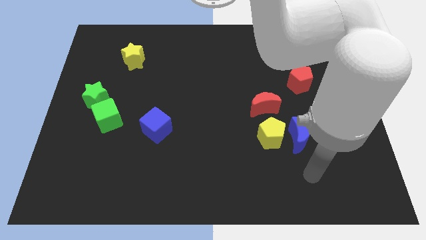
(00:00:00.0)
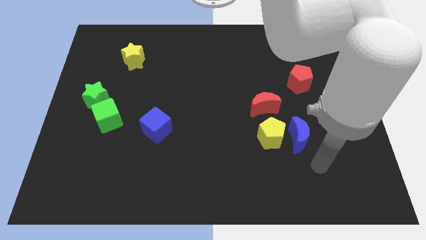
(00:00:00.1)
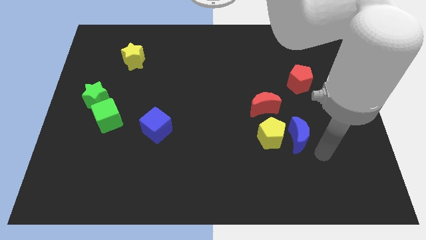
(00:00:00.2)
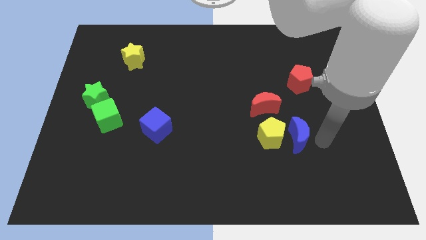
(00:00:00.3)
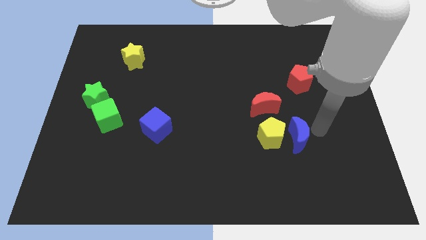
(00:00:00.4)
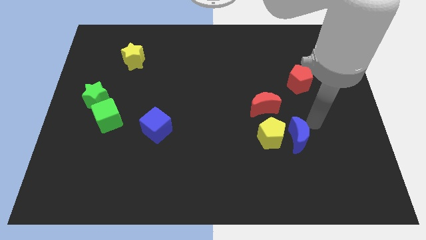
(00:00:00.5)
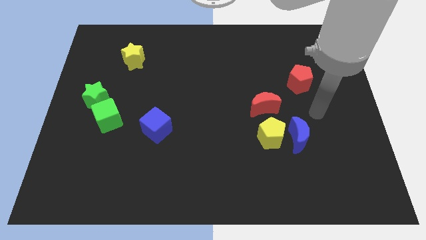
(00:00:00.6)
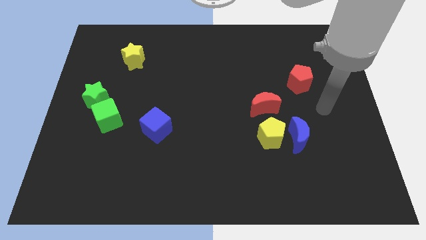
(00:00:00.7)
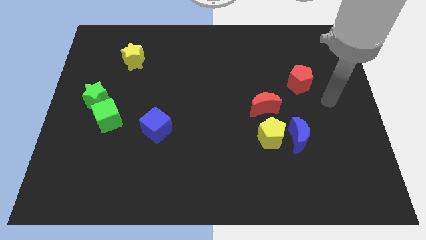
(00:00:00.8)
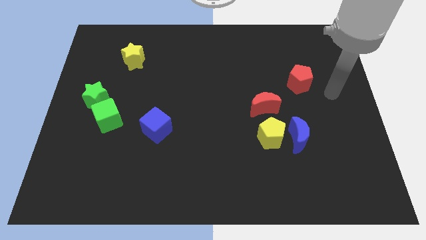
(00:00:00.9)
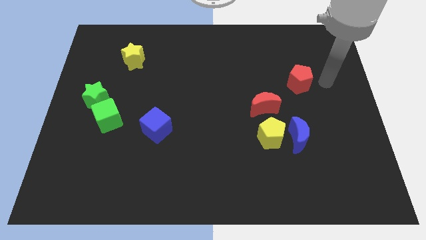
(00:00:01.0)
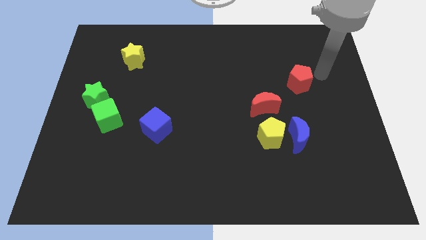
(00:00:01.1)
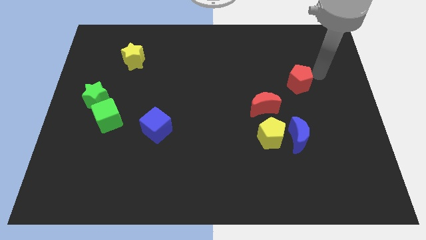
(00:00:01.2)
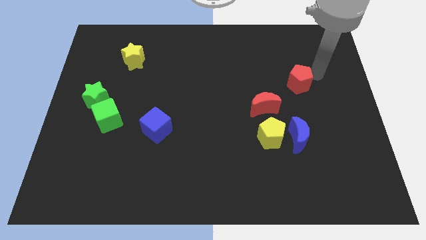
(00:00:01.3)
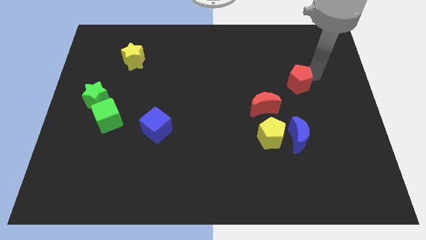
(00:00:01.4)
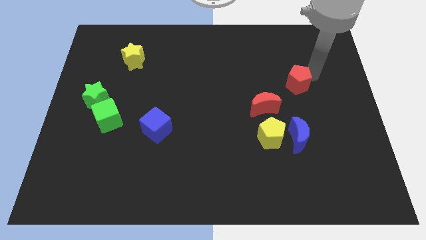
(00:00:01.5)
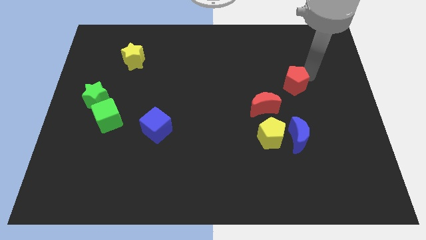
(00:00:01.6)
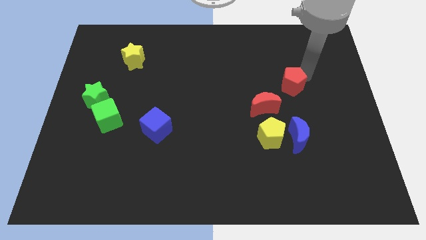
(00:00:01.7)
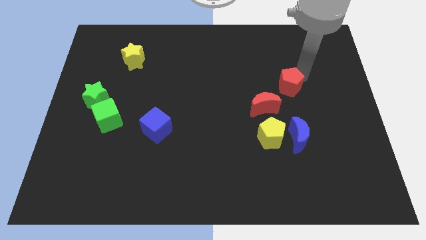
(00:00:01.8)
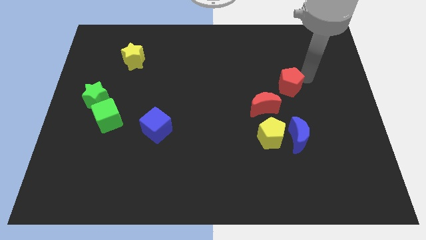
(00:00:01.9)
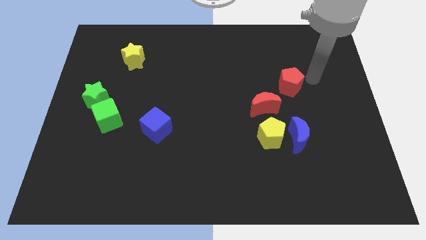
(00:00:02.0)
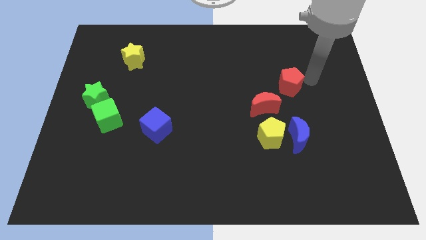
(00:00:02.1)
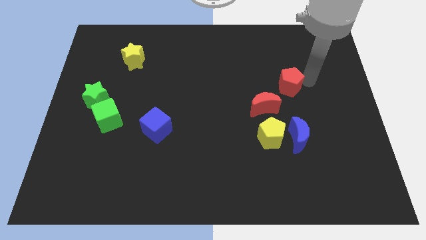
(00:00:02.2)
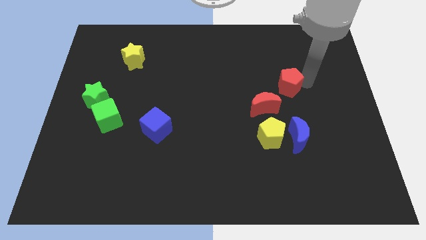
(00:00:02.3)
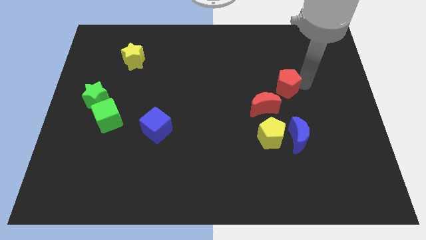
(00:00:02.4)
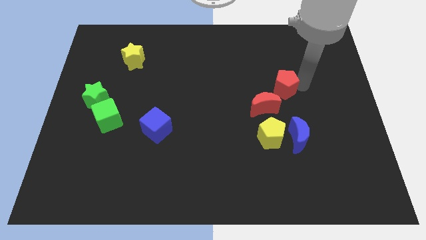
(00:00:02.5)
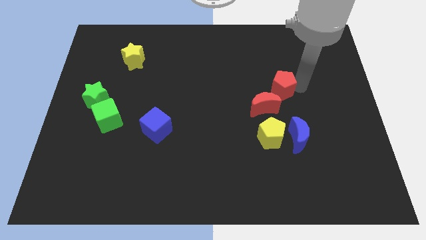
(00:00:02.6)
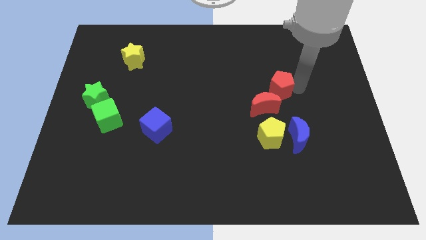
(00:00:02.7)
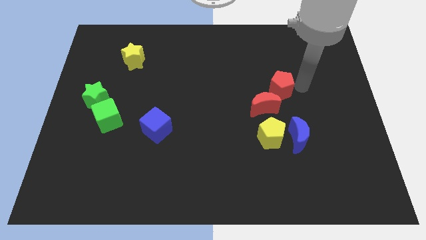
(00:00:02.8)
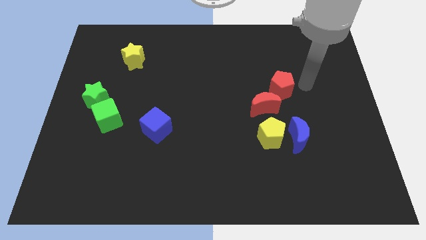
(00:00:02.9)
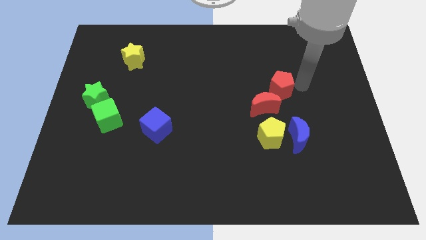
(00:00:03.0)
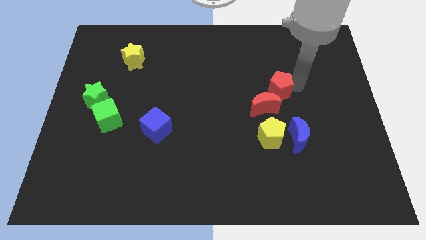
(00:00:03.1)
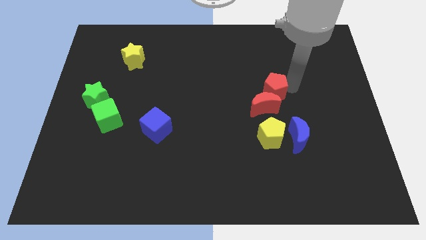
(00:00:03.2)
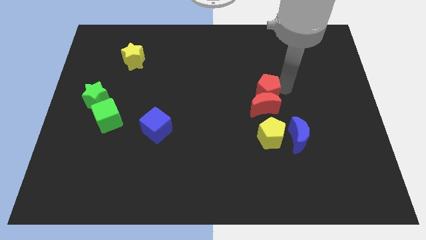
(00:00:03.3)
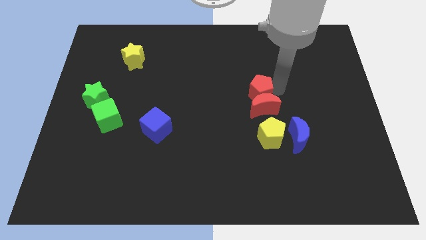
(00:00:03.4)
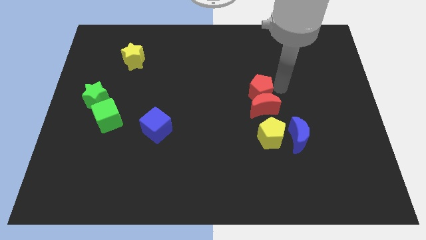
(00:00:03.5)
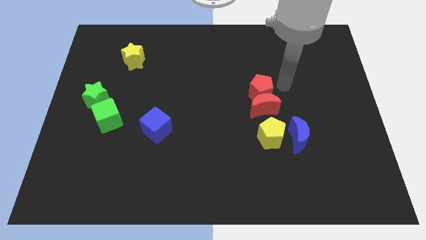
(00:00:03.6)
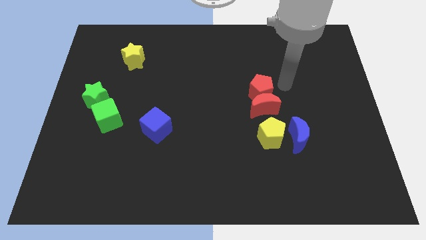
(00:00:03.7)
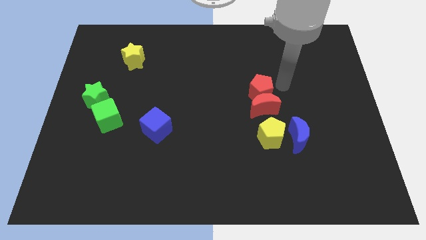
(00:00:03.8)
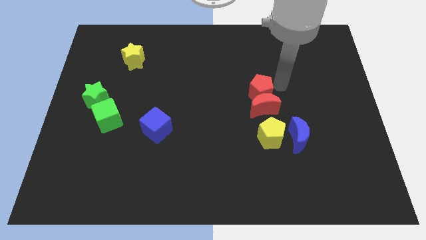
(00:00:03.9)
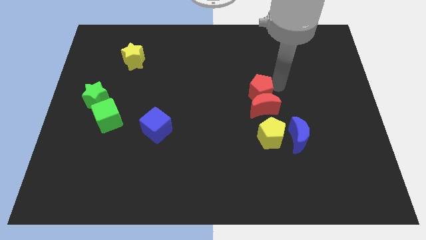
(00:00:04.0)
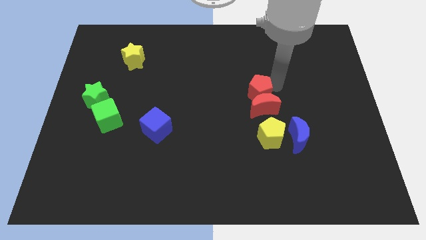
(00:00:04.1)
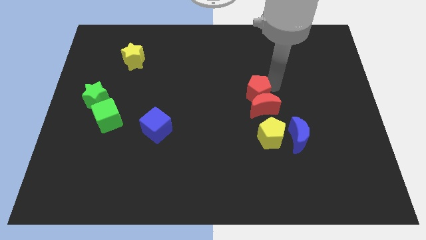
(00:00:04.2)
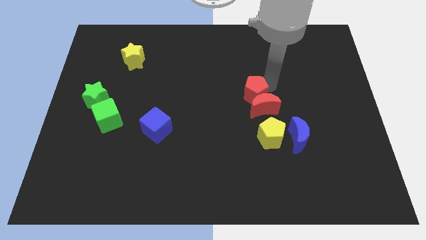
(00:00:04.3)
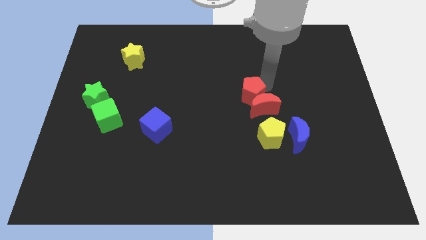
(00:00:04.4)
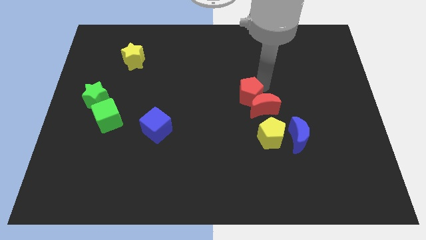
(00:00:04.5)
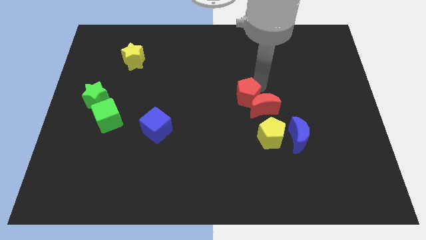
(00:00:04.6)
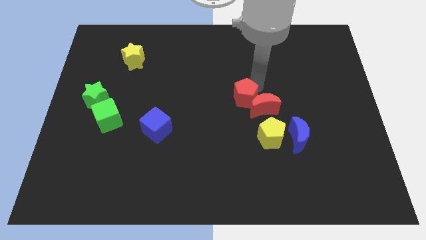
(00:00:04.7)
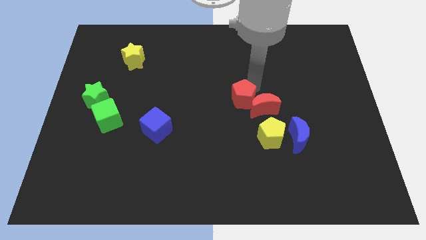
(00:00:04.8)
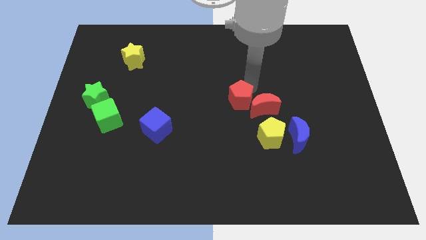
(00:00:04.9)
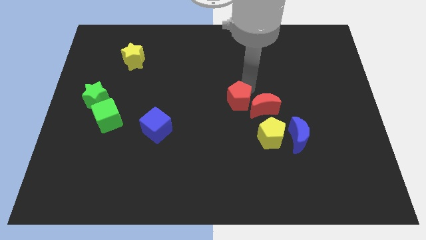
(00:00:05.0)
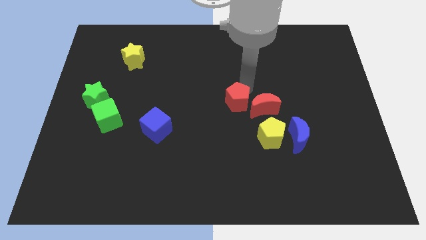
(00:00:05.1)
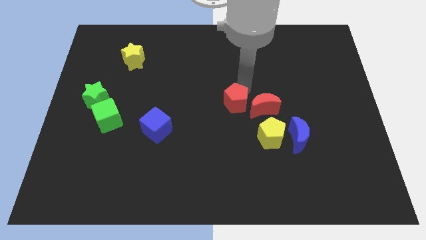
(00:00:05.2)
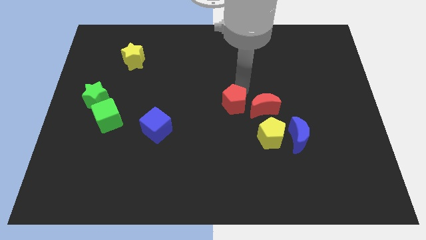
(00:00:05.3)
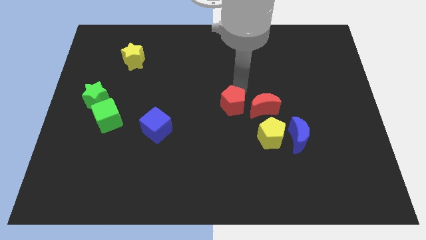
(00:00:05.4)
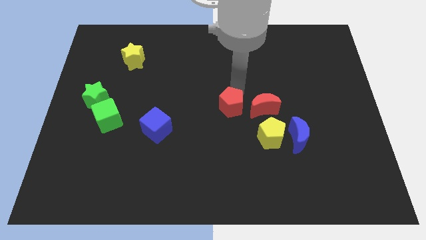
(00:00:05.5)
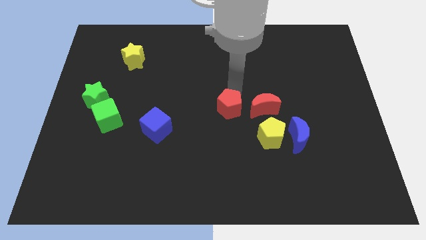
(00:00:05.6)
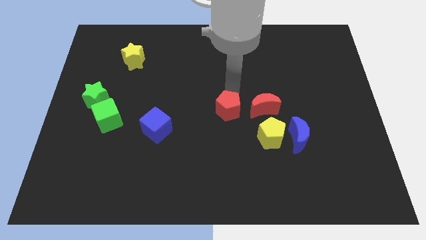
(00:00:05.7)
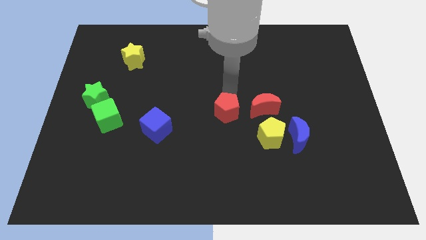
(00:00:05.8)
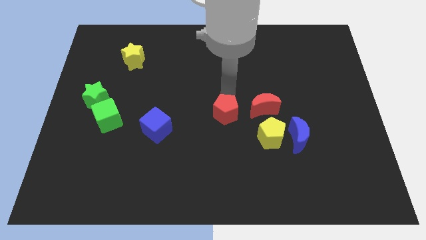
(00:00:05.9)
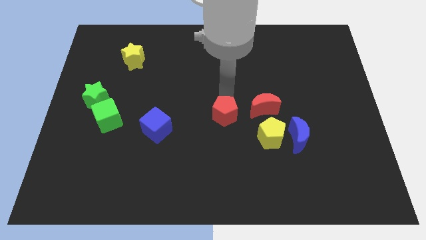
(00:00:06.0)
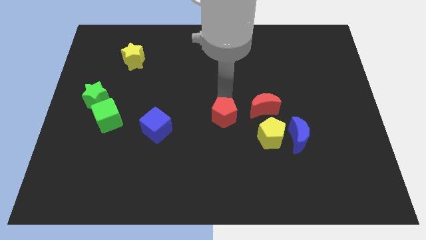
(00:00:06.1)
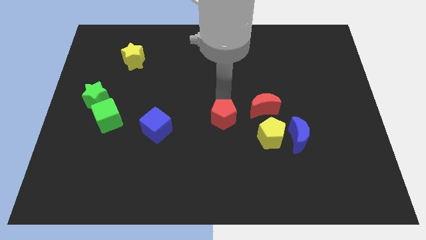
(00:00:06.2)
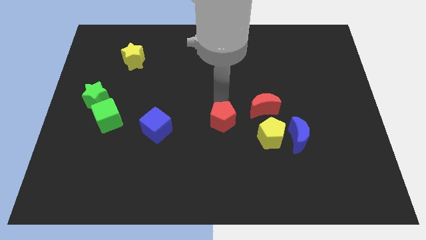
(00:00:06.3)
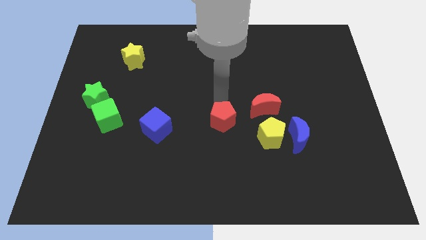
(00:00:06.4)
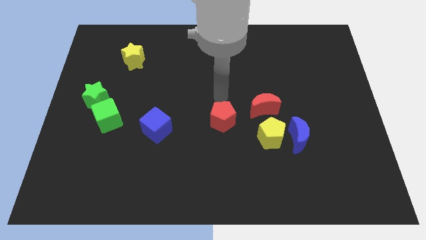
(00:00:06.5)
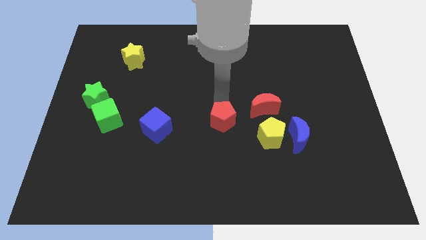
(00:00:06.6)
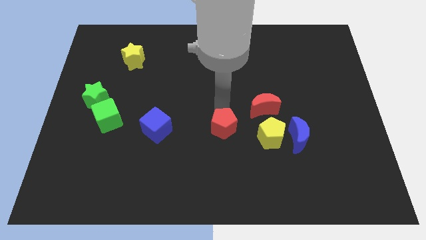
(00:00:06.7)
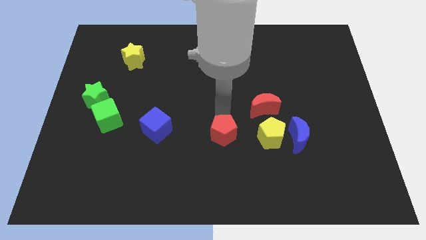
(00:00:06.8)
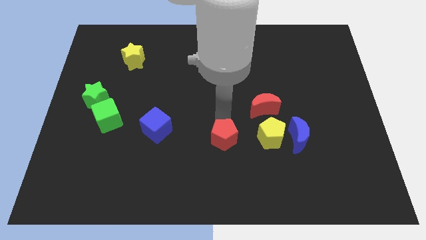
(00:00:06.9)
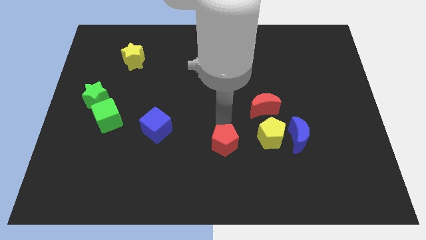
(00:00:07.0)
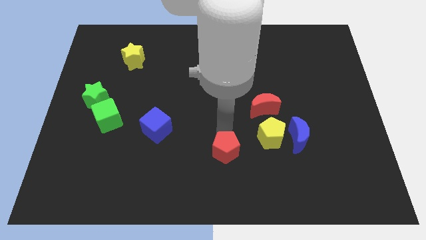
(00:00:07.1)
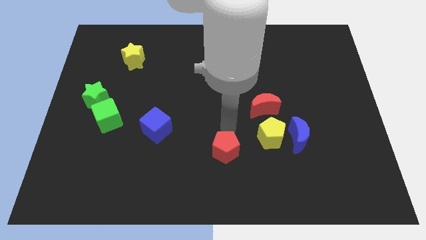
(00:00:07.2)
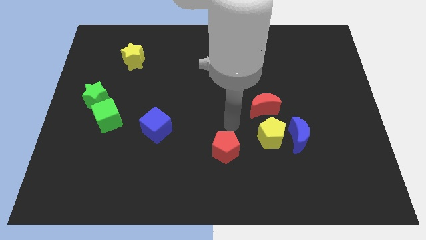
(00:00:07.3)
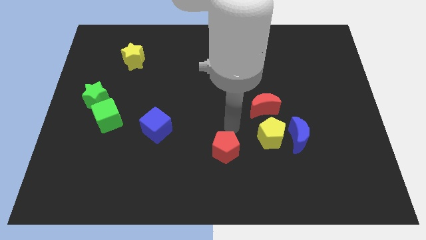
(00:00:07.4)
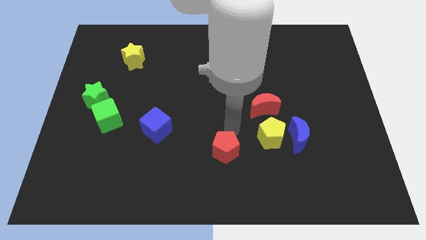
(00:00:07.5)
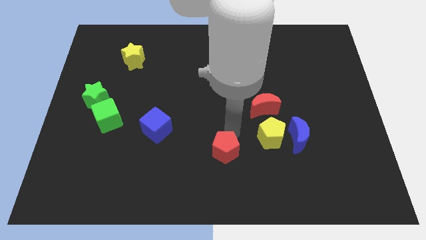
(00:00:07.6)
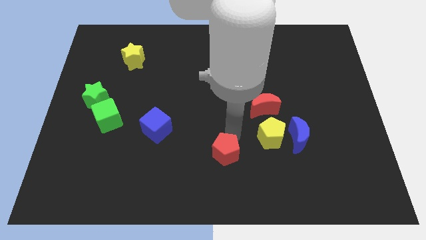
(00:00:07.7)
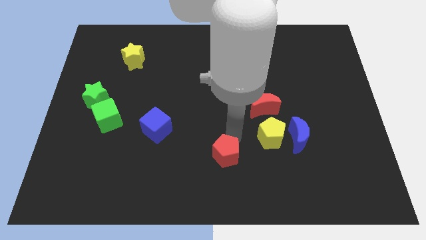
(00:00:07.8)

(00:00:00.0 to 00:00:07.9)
slide the red pentagon to the bottom side

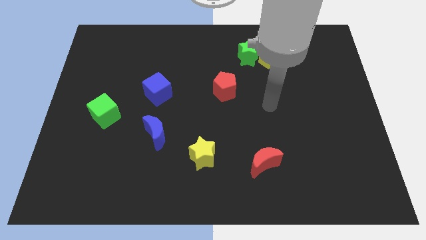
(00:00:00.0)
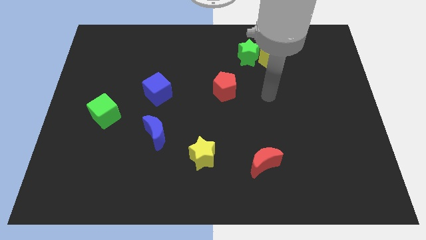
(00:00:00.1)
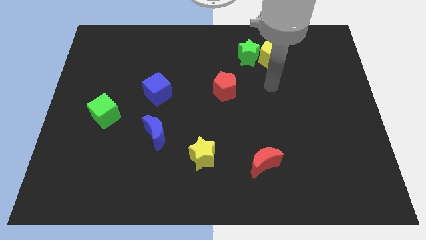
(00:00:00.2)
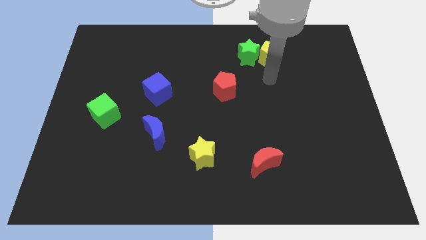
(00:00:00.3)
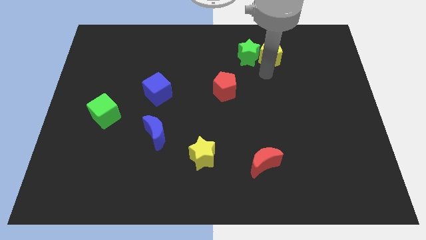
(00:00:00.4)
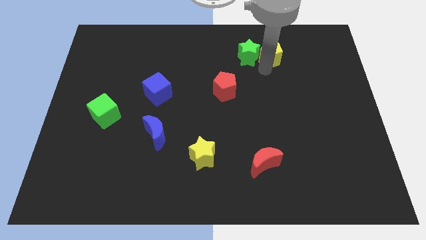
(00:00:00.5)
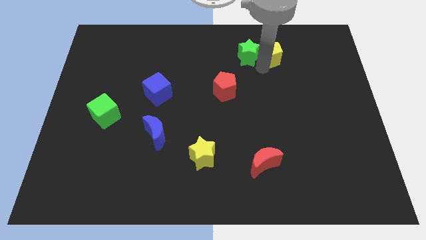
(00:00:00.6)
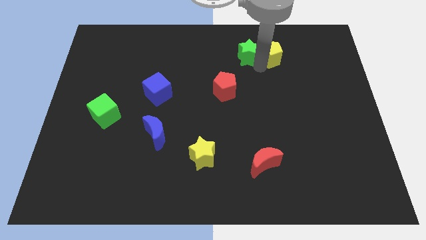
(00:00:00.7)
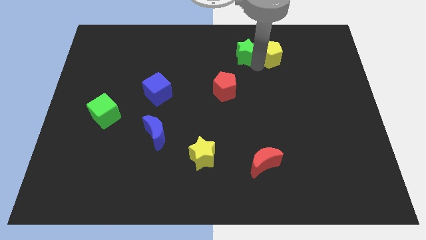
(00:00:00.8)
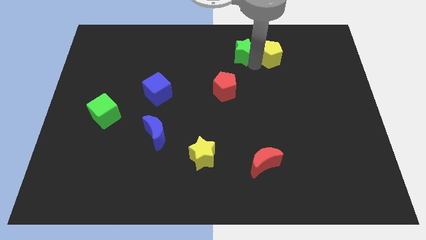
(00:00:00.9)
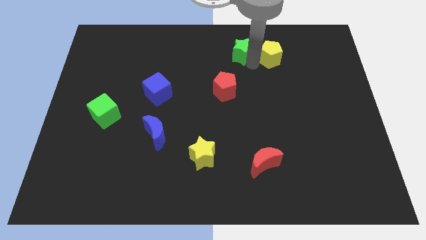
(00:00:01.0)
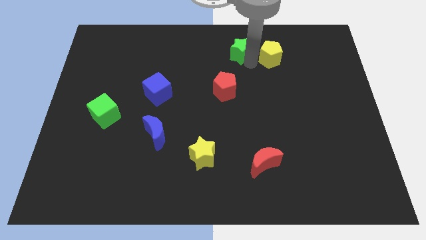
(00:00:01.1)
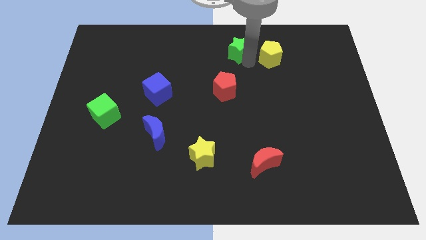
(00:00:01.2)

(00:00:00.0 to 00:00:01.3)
put the green star to the towards your base
